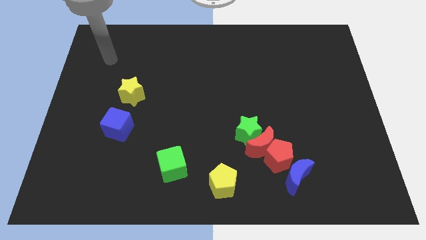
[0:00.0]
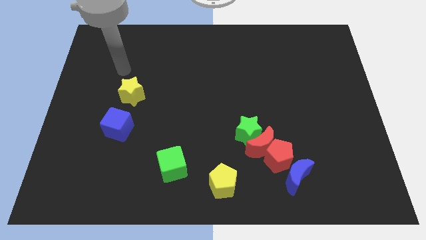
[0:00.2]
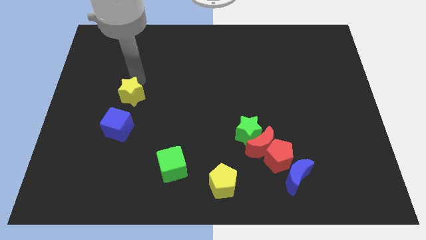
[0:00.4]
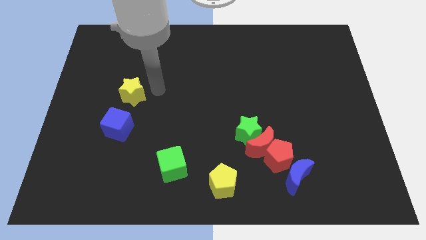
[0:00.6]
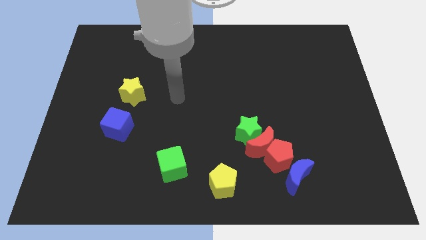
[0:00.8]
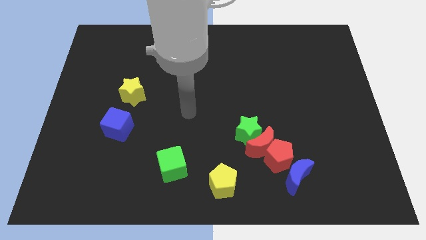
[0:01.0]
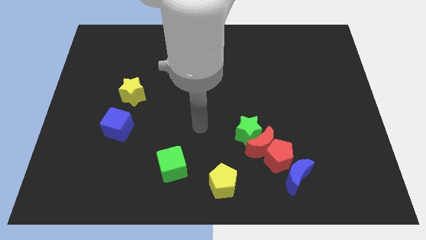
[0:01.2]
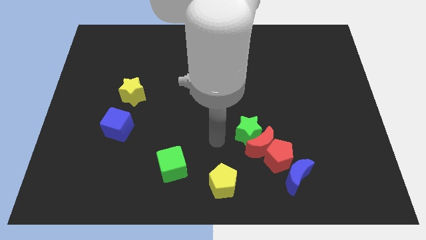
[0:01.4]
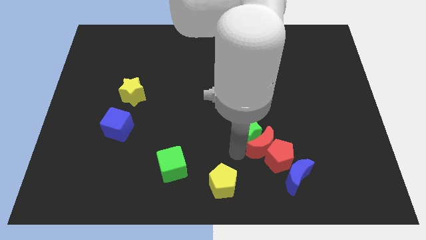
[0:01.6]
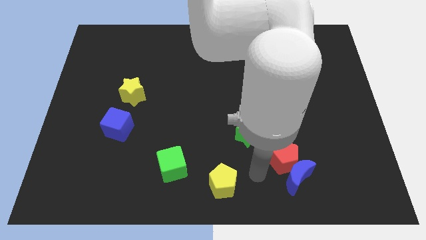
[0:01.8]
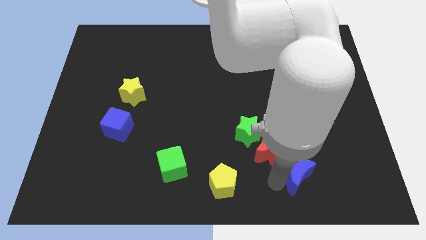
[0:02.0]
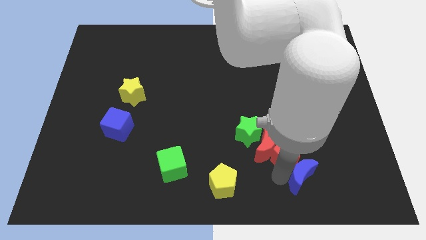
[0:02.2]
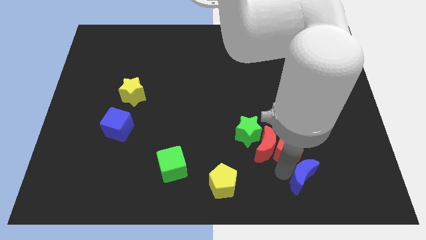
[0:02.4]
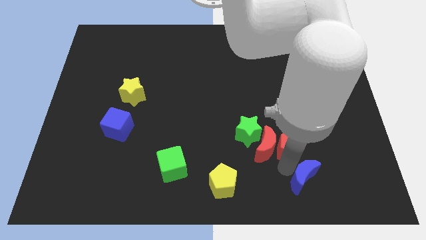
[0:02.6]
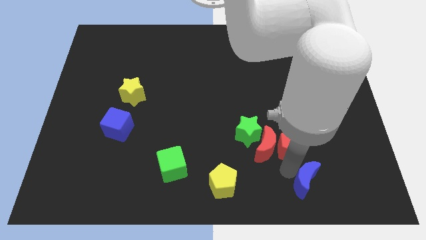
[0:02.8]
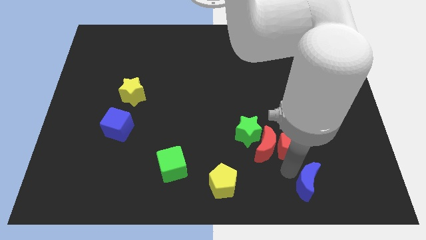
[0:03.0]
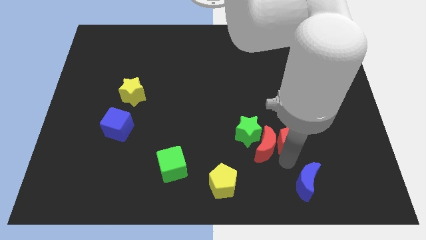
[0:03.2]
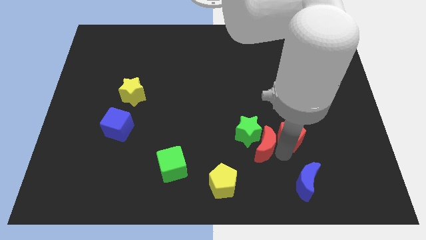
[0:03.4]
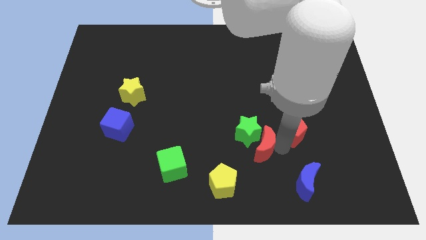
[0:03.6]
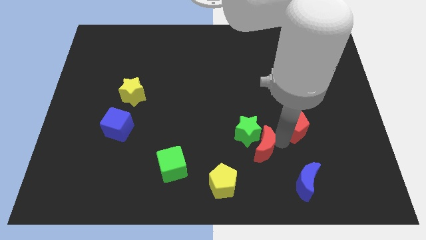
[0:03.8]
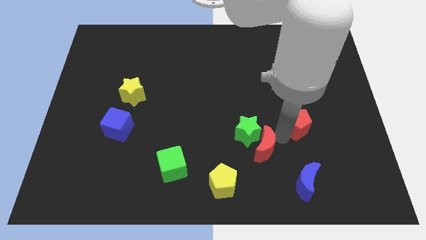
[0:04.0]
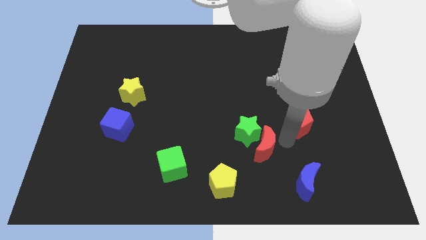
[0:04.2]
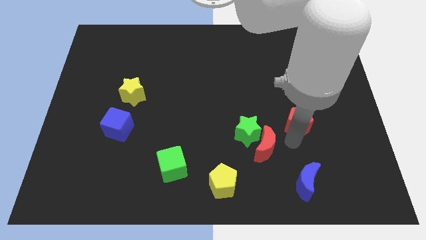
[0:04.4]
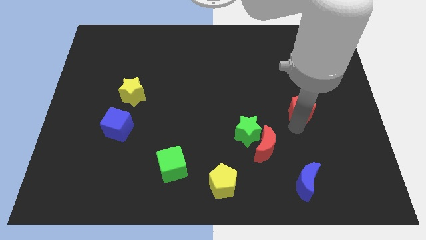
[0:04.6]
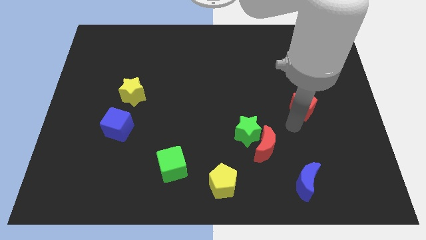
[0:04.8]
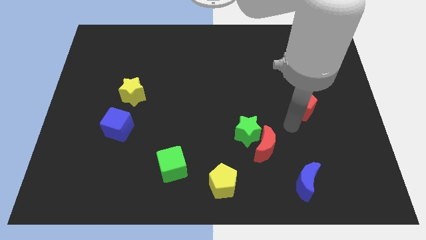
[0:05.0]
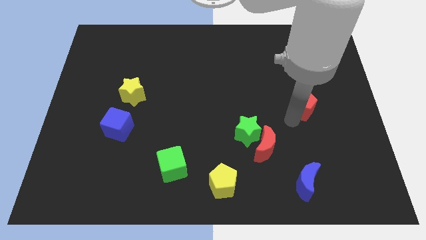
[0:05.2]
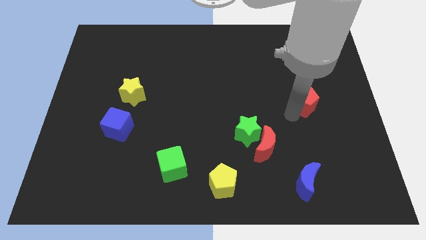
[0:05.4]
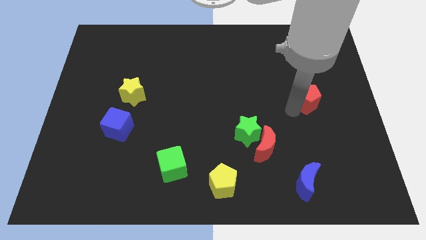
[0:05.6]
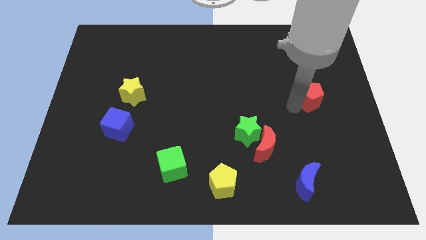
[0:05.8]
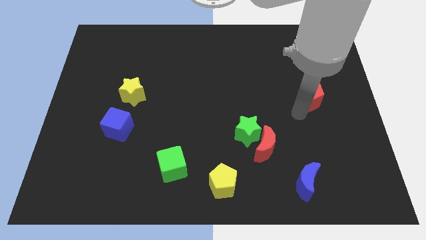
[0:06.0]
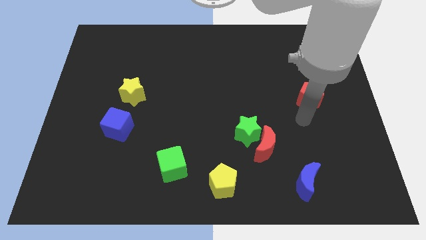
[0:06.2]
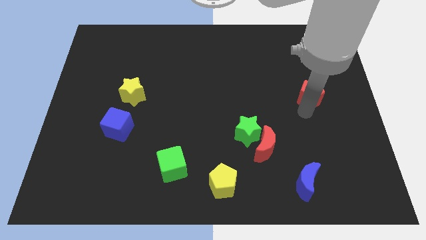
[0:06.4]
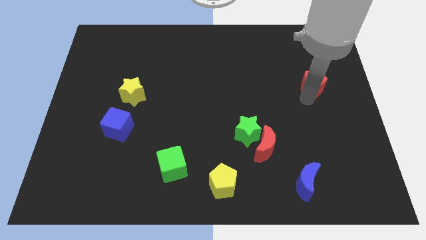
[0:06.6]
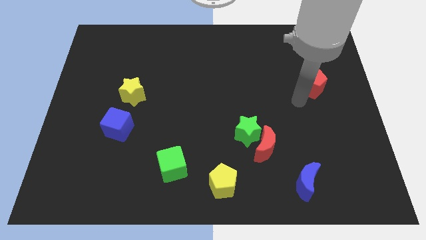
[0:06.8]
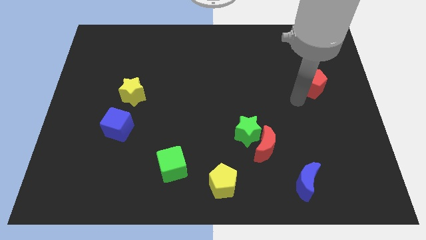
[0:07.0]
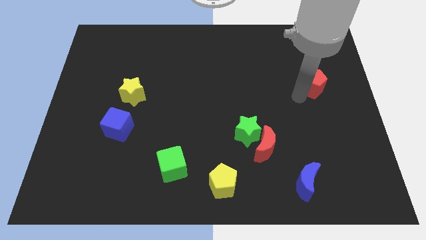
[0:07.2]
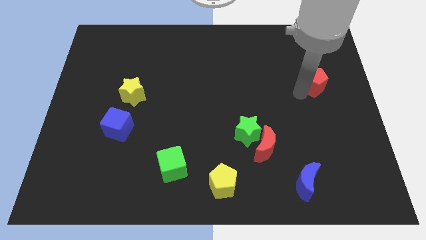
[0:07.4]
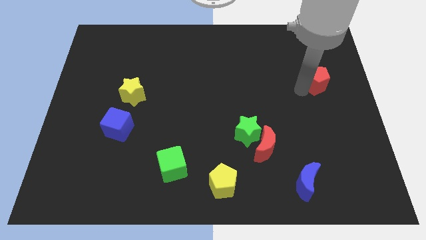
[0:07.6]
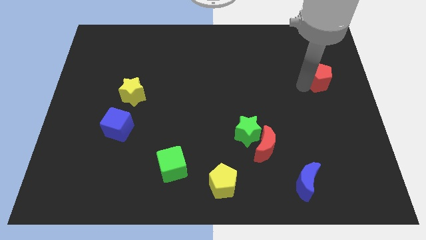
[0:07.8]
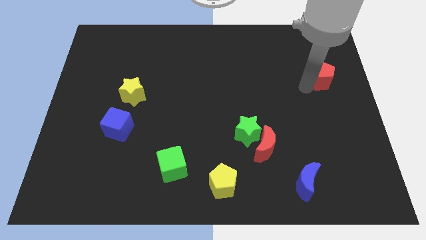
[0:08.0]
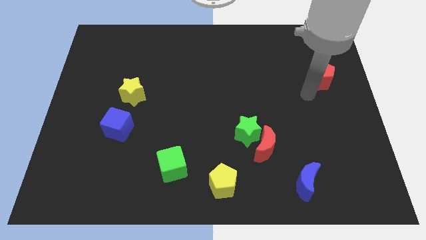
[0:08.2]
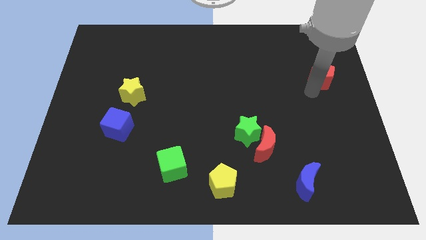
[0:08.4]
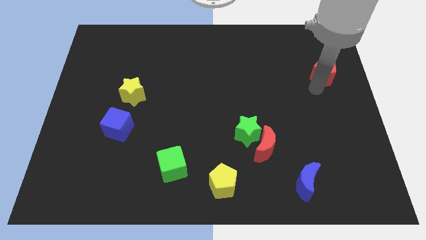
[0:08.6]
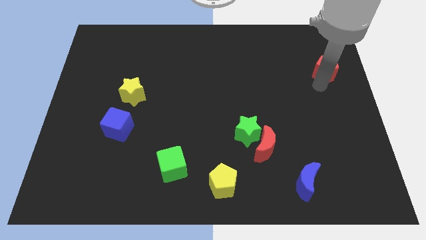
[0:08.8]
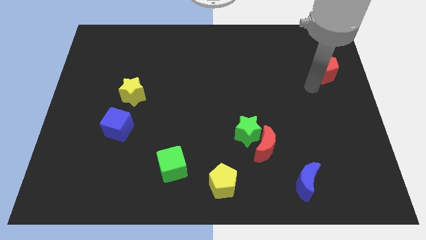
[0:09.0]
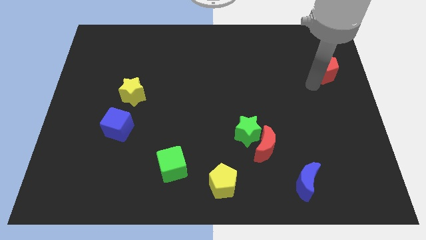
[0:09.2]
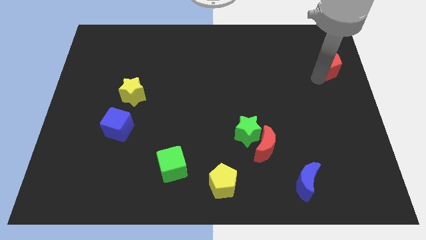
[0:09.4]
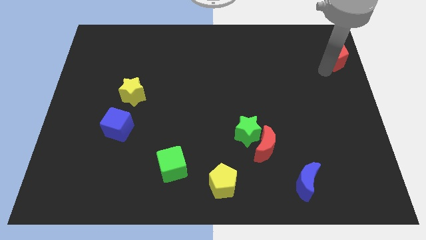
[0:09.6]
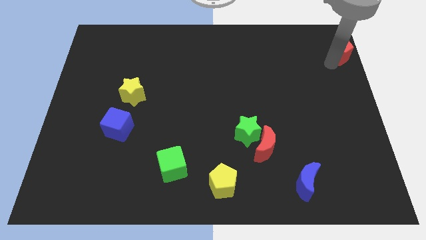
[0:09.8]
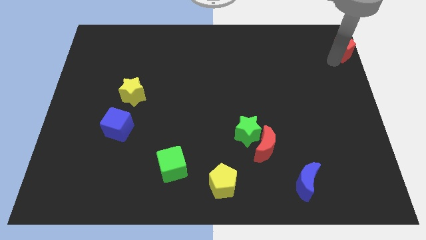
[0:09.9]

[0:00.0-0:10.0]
push the red pentagon to the upper right corner
